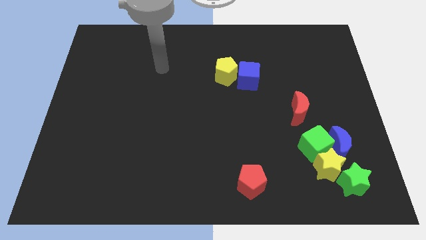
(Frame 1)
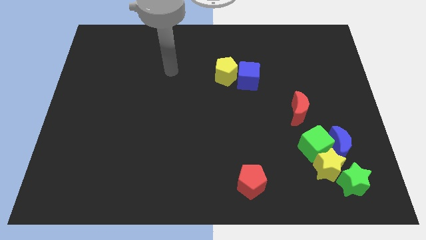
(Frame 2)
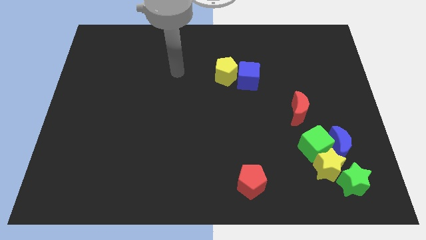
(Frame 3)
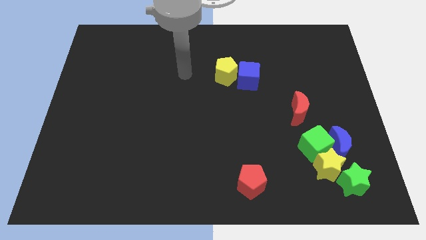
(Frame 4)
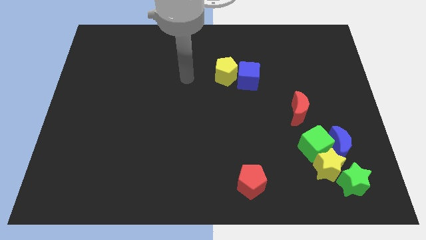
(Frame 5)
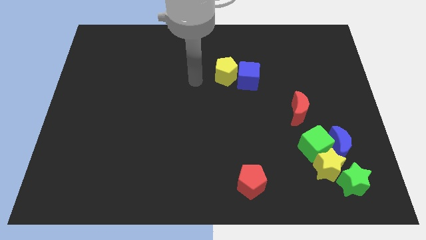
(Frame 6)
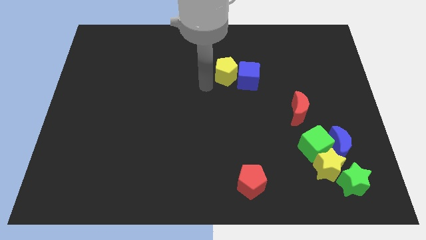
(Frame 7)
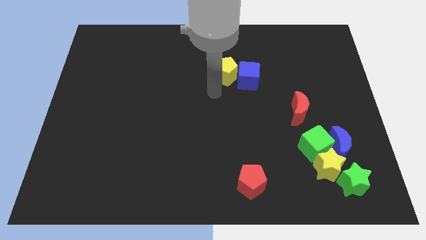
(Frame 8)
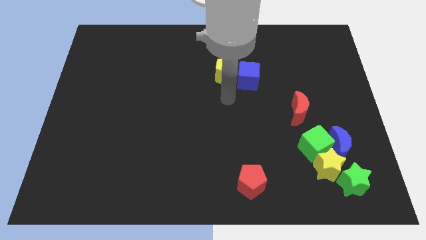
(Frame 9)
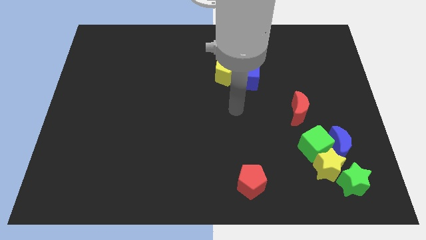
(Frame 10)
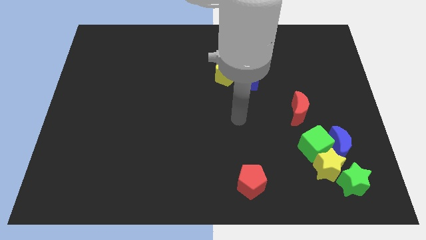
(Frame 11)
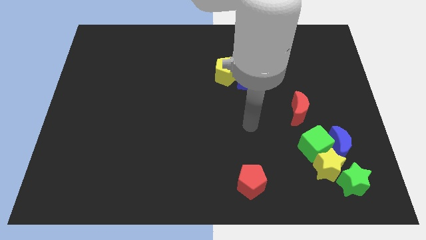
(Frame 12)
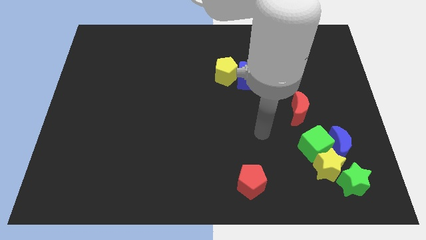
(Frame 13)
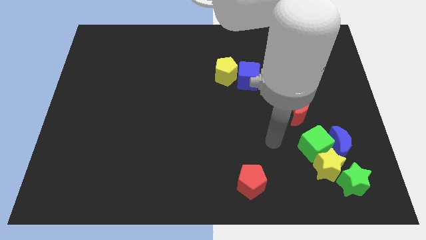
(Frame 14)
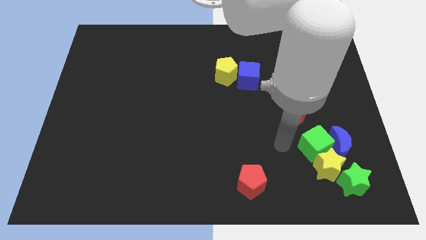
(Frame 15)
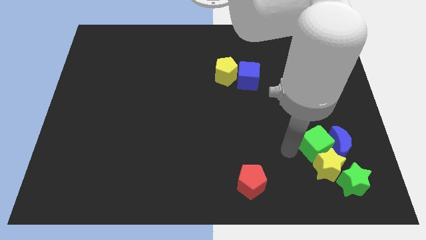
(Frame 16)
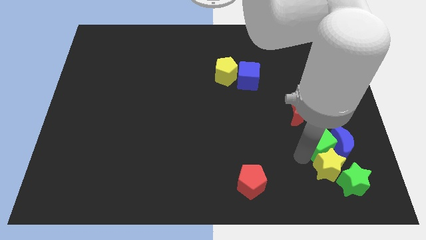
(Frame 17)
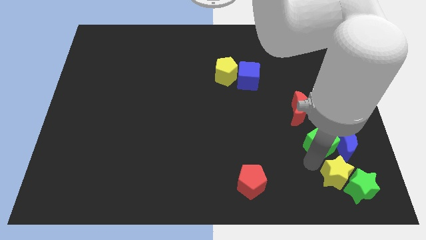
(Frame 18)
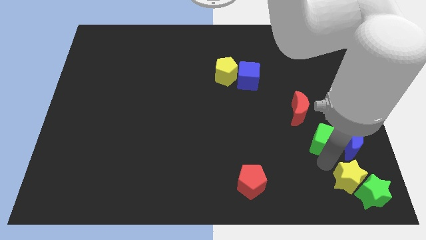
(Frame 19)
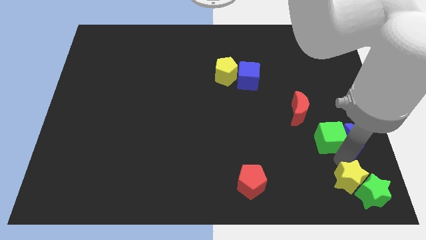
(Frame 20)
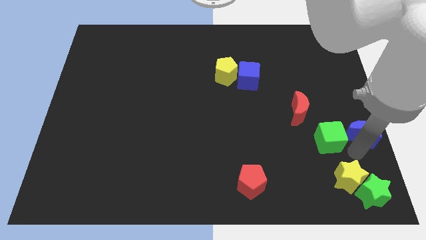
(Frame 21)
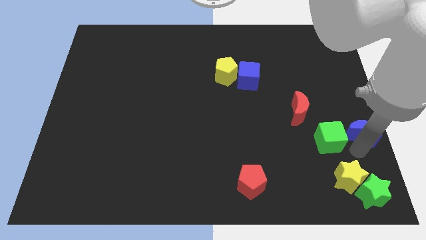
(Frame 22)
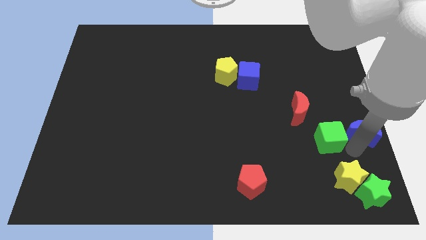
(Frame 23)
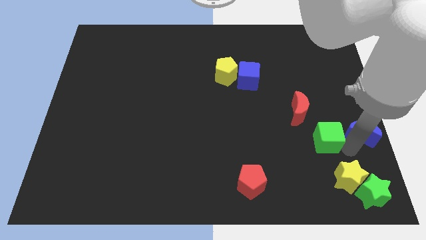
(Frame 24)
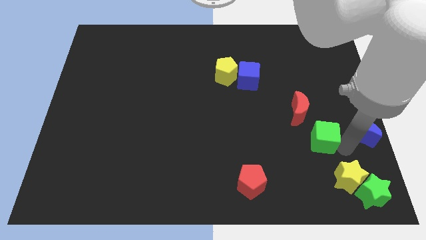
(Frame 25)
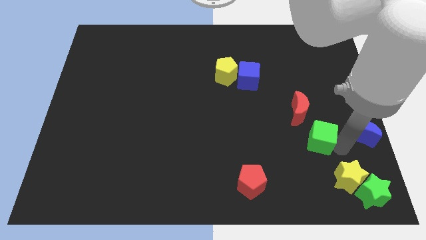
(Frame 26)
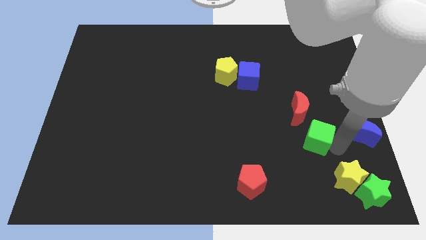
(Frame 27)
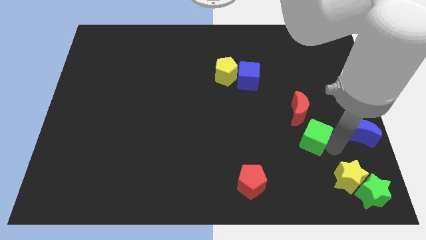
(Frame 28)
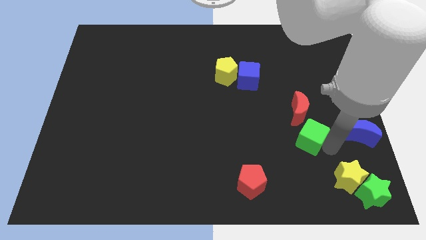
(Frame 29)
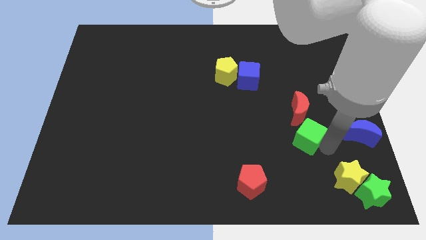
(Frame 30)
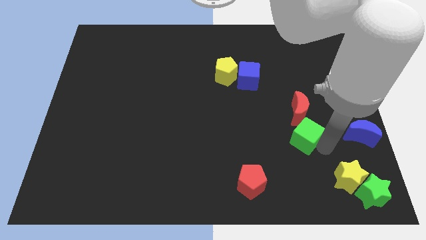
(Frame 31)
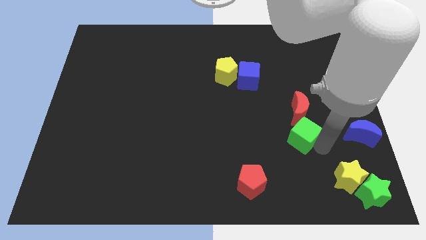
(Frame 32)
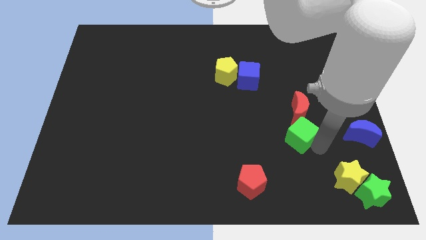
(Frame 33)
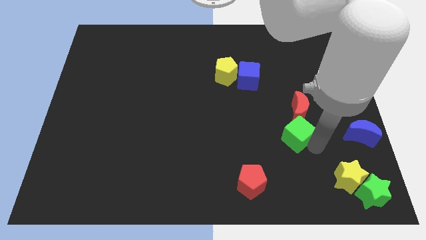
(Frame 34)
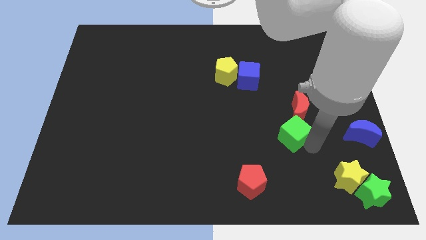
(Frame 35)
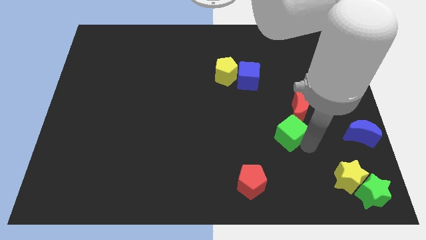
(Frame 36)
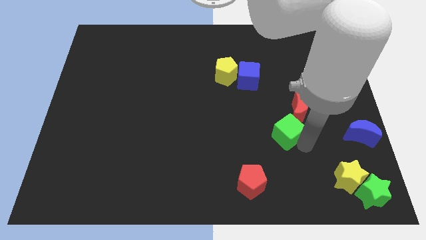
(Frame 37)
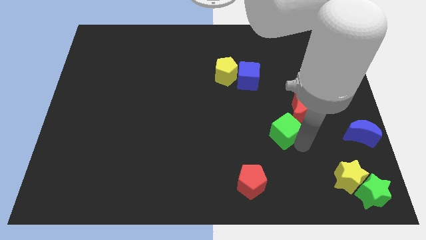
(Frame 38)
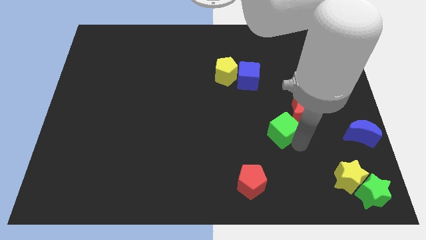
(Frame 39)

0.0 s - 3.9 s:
slightly slide the green cube upwards and then left

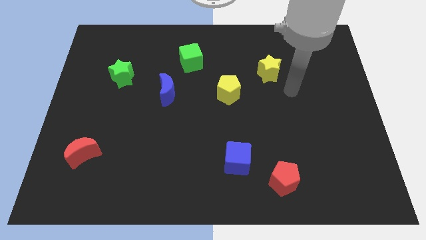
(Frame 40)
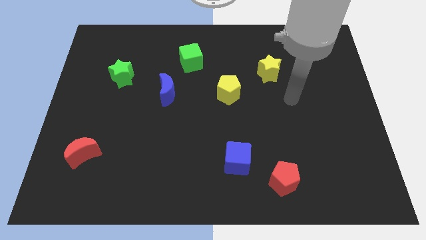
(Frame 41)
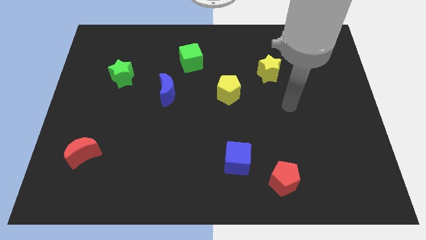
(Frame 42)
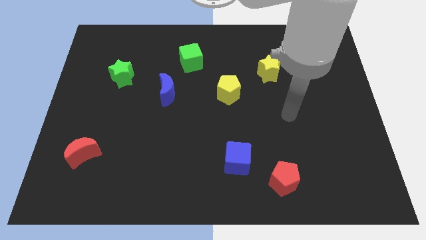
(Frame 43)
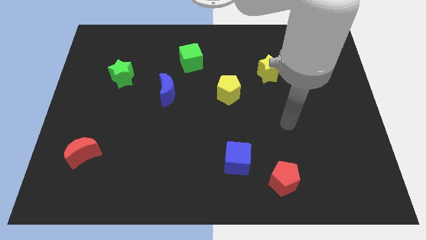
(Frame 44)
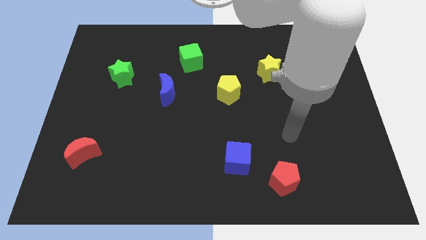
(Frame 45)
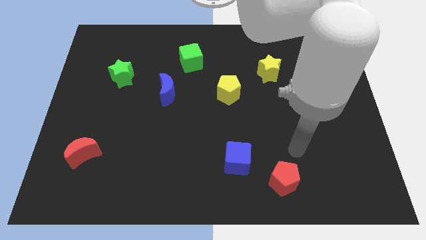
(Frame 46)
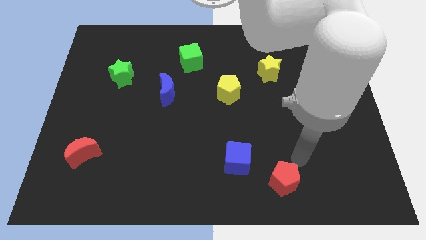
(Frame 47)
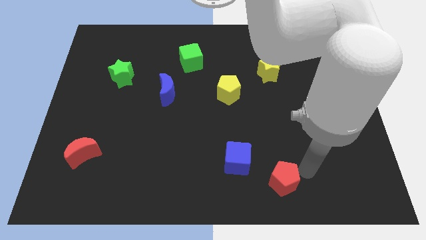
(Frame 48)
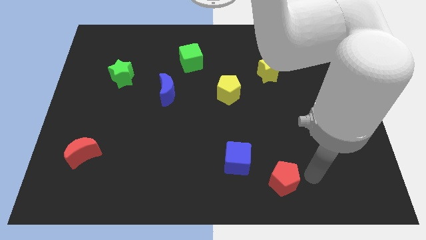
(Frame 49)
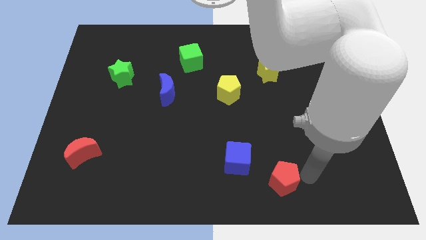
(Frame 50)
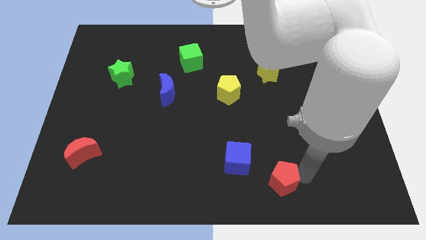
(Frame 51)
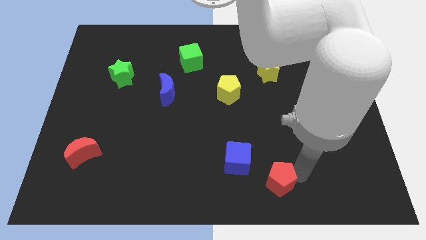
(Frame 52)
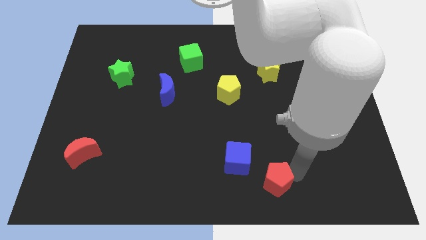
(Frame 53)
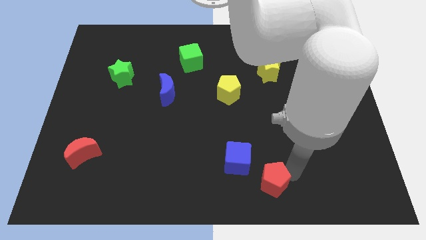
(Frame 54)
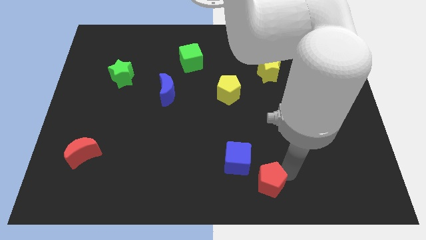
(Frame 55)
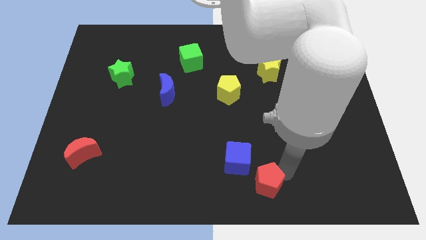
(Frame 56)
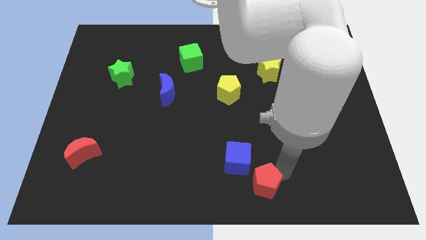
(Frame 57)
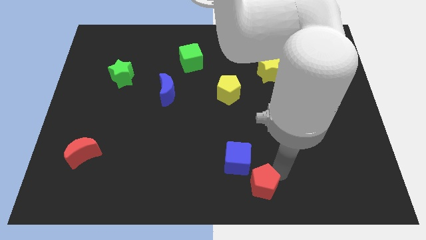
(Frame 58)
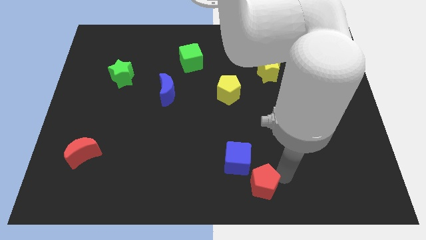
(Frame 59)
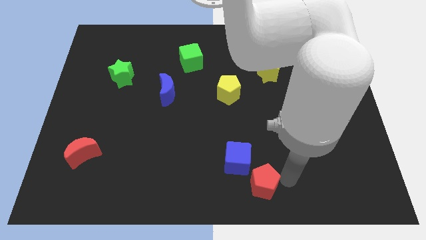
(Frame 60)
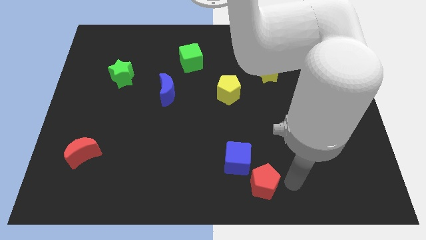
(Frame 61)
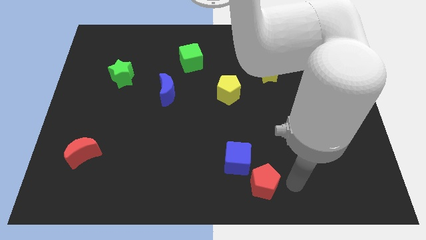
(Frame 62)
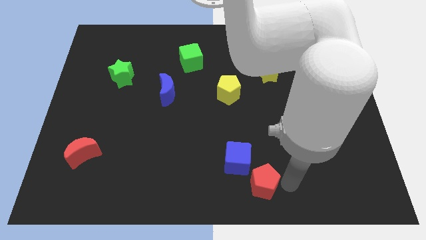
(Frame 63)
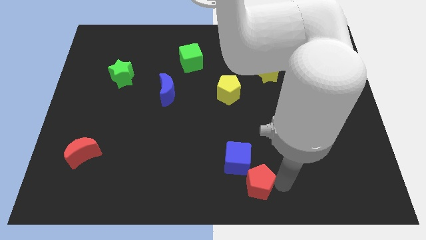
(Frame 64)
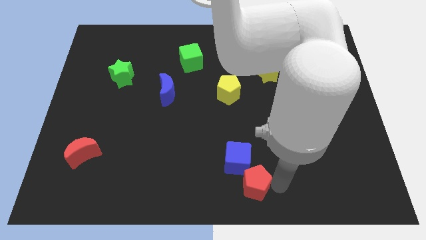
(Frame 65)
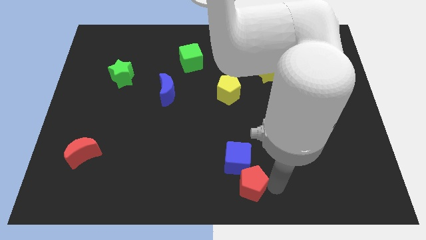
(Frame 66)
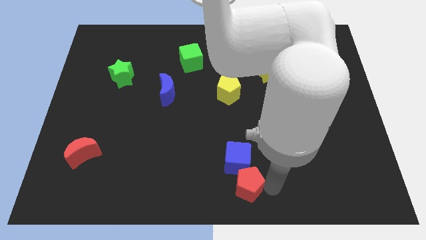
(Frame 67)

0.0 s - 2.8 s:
slightly push the red pentagon to the left

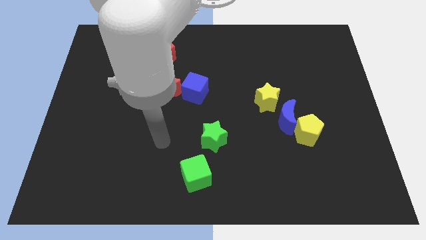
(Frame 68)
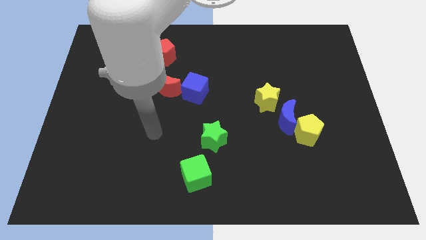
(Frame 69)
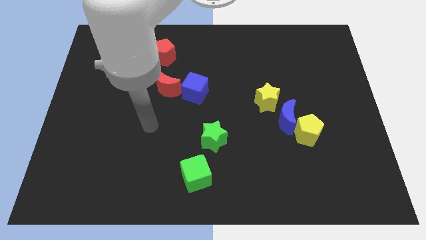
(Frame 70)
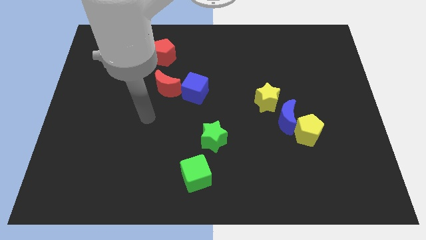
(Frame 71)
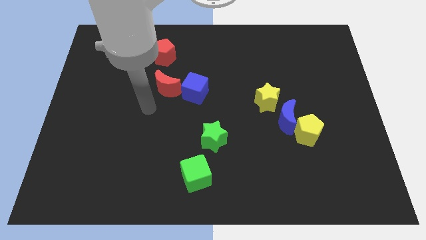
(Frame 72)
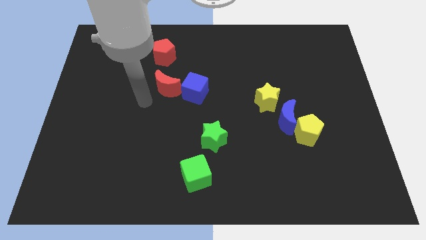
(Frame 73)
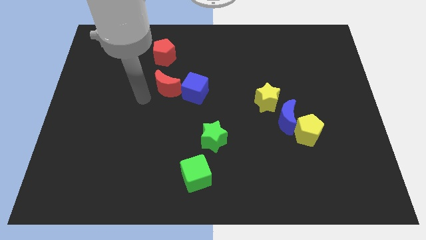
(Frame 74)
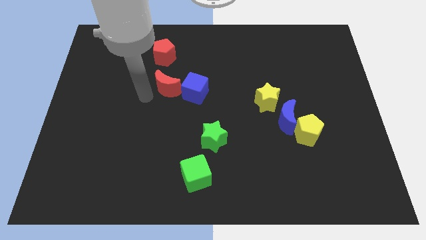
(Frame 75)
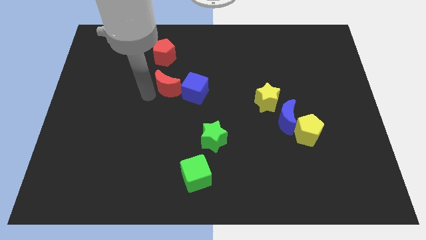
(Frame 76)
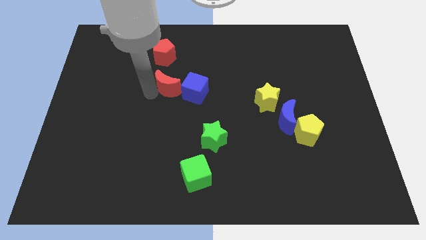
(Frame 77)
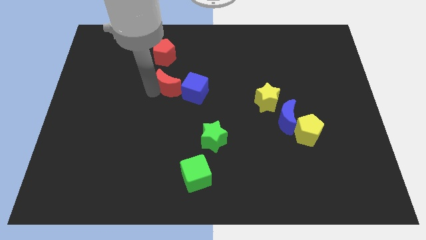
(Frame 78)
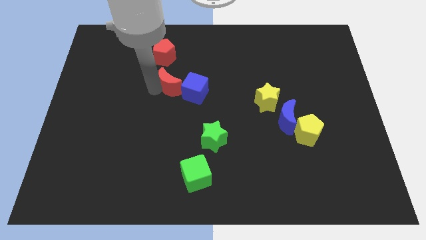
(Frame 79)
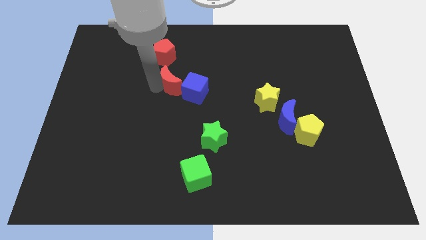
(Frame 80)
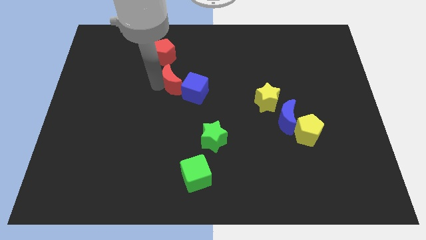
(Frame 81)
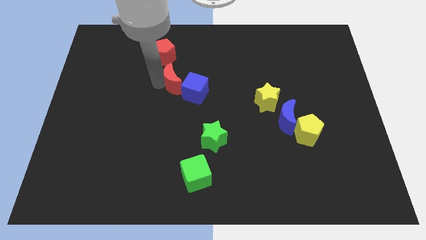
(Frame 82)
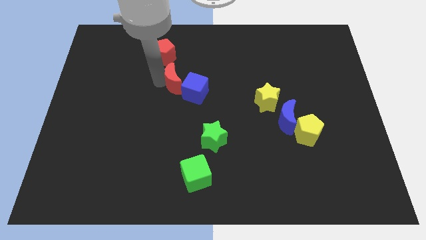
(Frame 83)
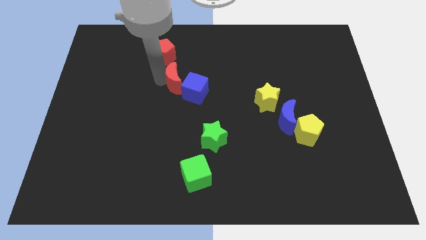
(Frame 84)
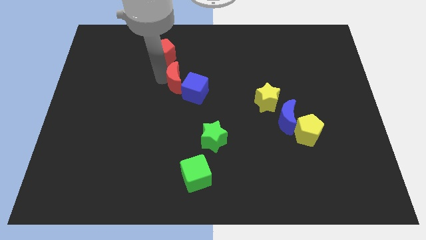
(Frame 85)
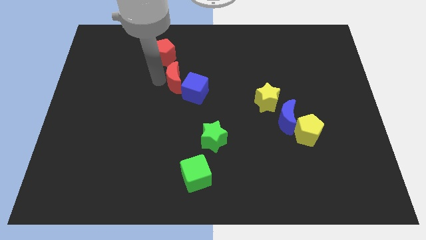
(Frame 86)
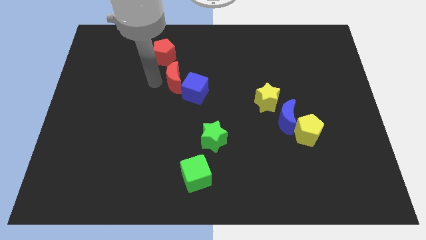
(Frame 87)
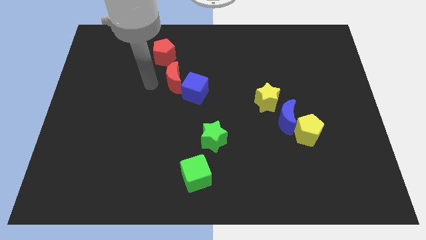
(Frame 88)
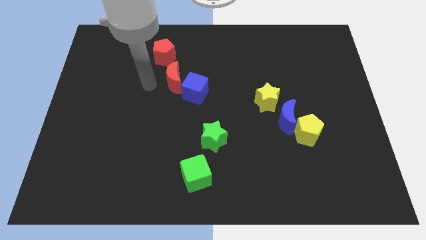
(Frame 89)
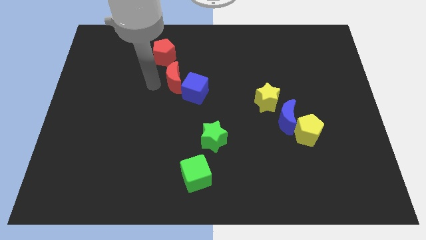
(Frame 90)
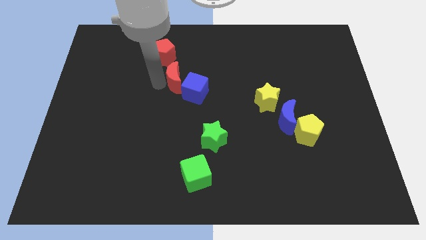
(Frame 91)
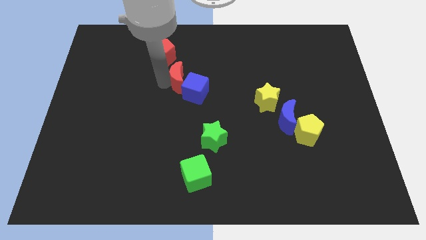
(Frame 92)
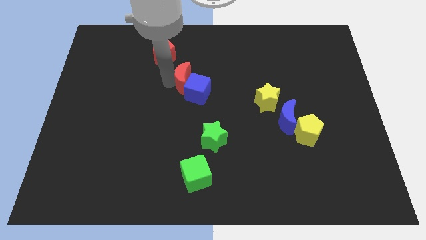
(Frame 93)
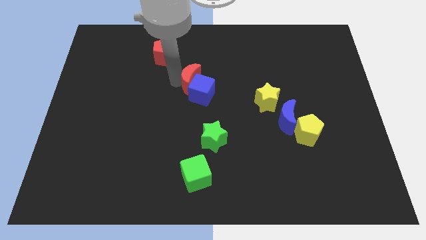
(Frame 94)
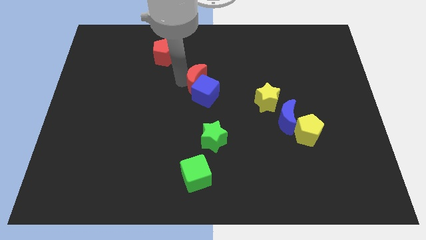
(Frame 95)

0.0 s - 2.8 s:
slide the red moon a little to the right
